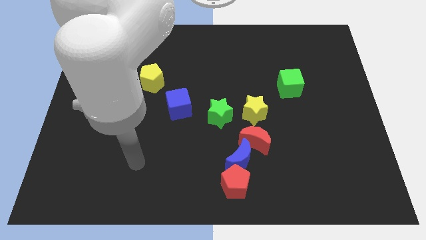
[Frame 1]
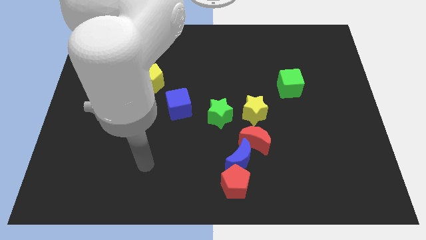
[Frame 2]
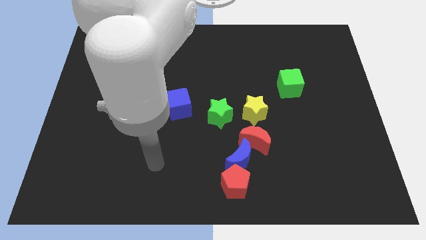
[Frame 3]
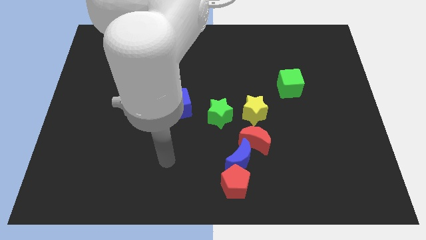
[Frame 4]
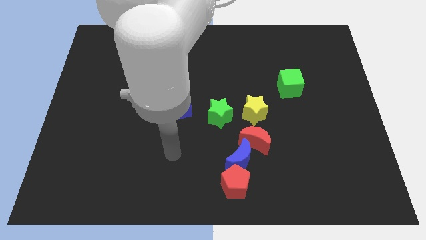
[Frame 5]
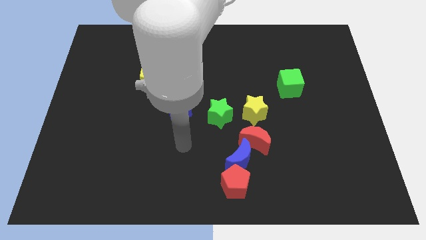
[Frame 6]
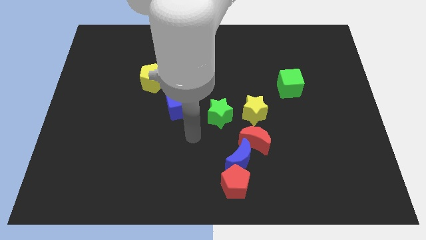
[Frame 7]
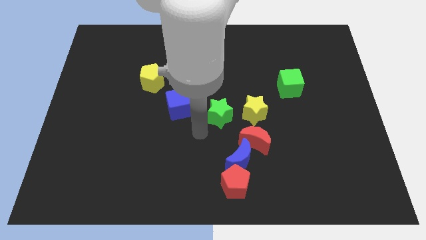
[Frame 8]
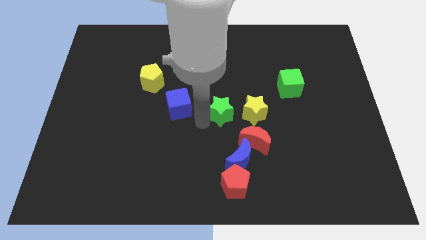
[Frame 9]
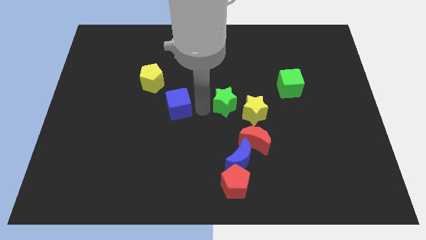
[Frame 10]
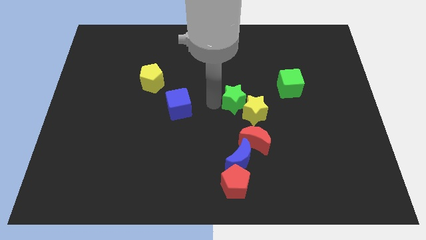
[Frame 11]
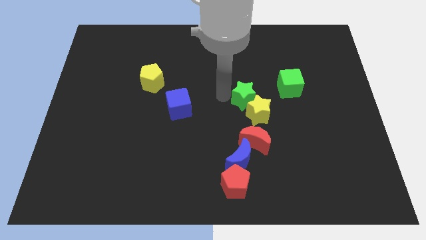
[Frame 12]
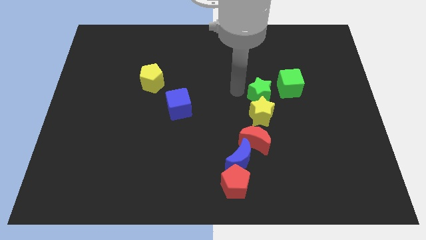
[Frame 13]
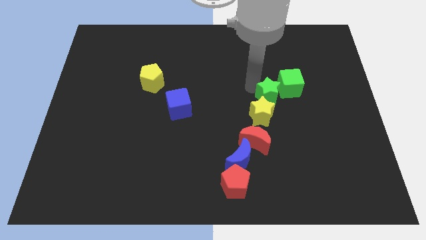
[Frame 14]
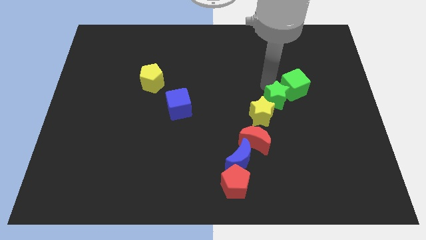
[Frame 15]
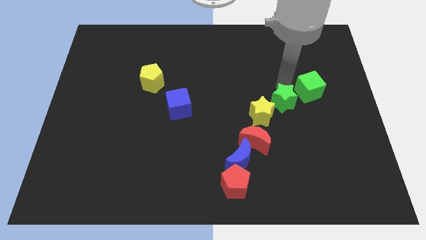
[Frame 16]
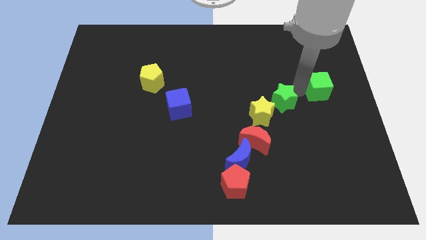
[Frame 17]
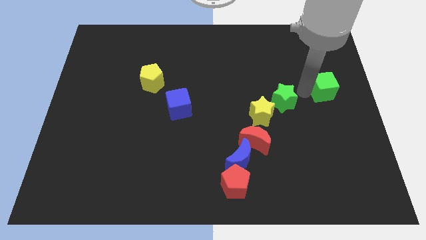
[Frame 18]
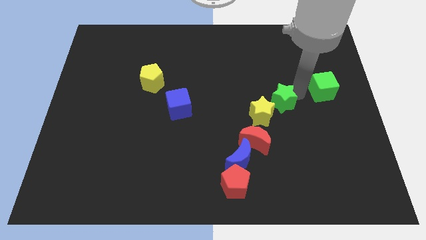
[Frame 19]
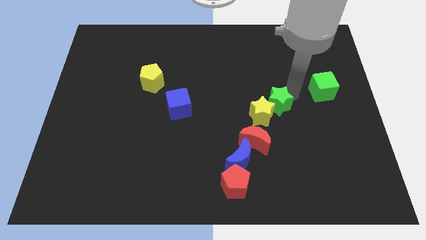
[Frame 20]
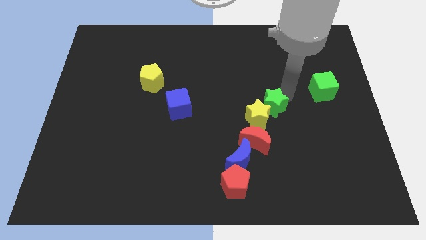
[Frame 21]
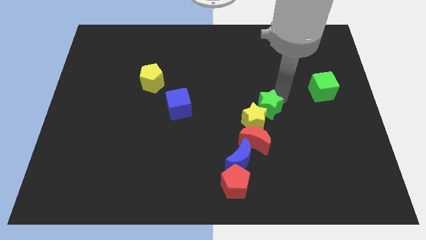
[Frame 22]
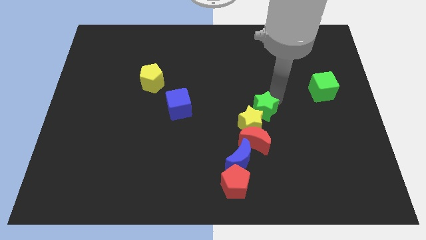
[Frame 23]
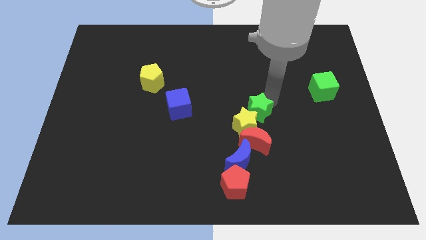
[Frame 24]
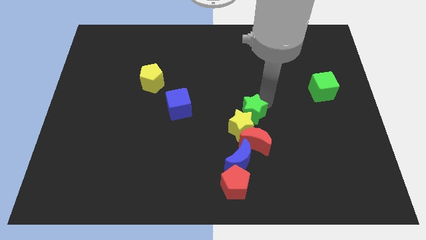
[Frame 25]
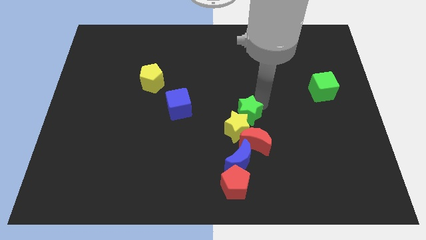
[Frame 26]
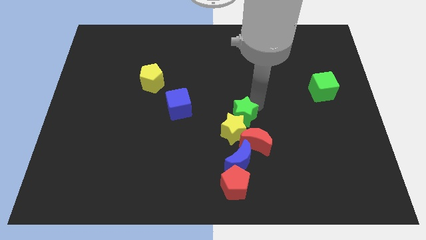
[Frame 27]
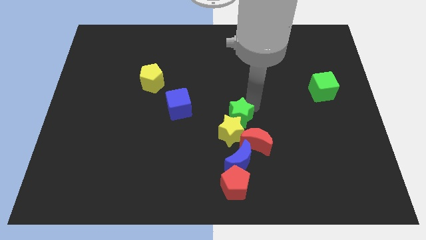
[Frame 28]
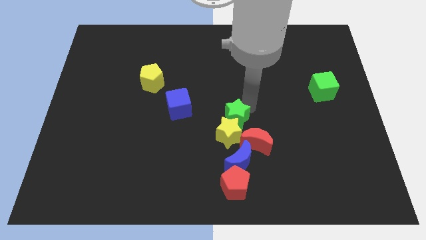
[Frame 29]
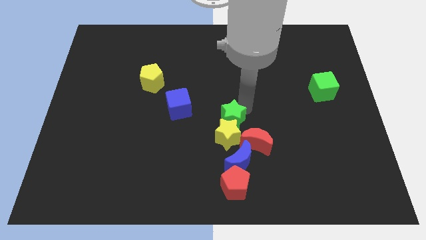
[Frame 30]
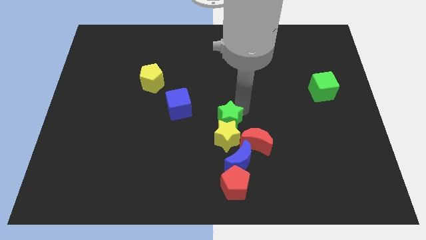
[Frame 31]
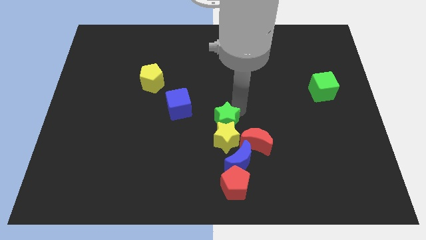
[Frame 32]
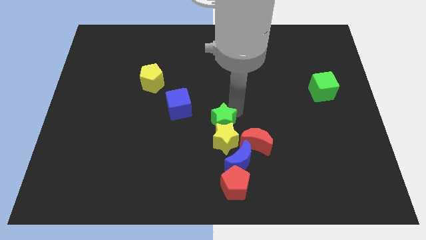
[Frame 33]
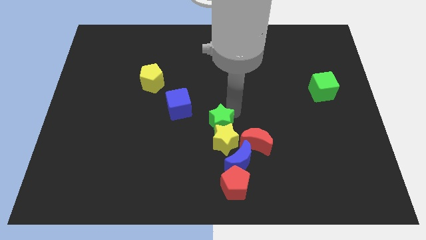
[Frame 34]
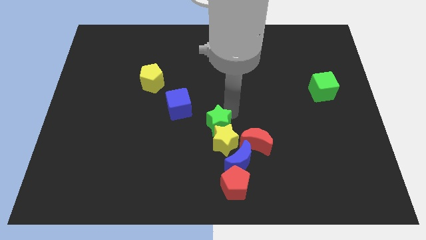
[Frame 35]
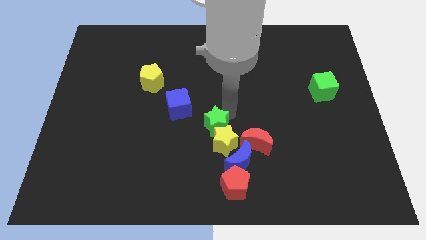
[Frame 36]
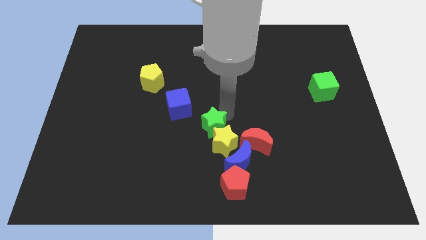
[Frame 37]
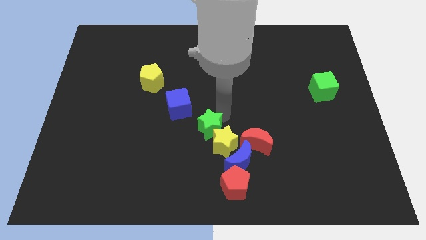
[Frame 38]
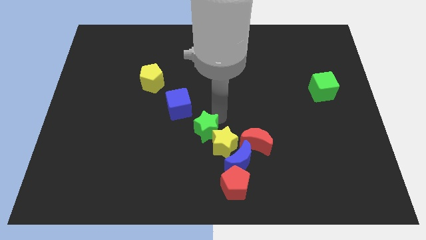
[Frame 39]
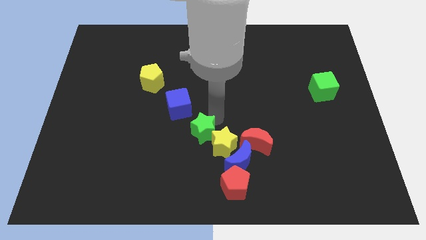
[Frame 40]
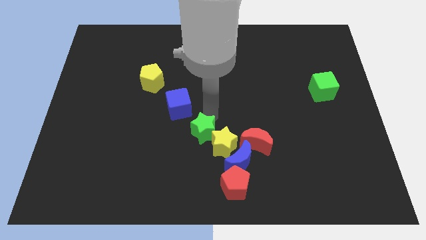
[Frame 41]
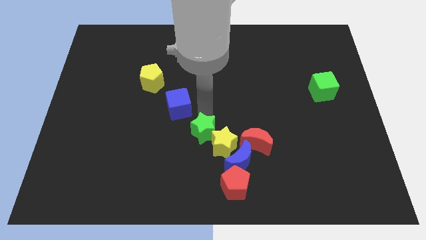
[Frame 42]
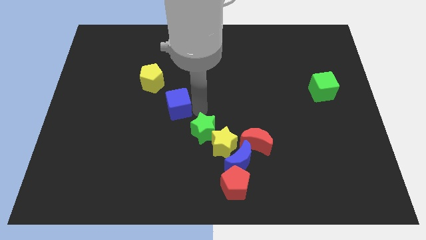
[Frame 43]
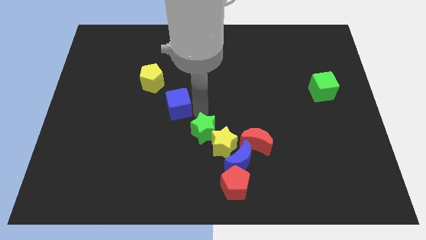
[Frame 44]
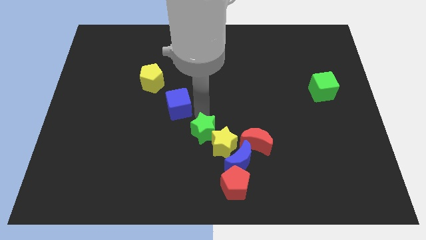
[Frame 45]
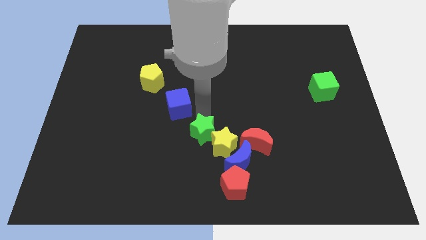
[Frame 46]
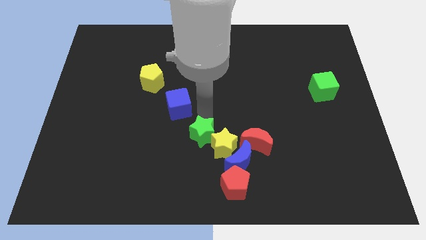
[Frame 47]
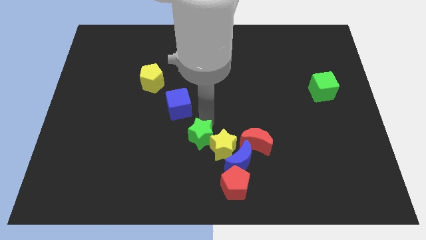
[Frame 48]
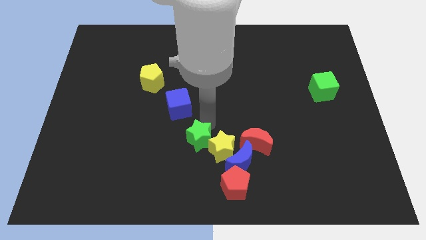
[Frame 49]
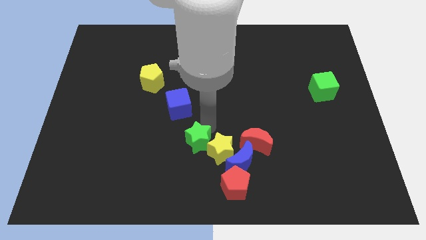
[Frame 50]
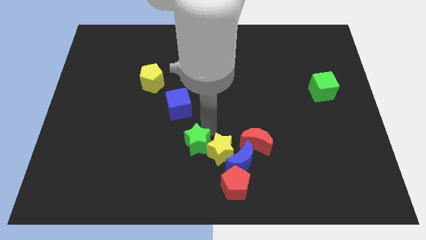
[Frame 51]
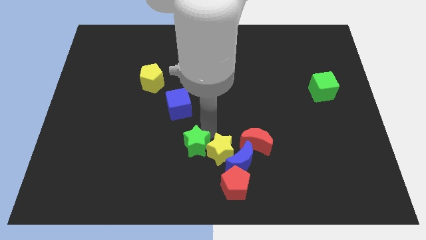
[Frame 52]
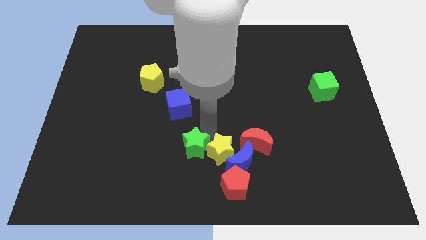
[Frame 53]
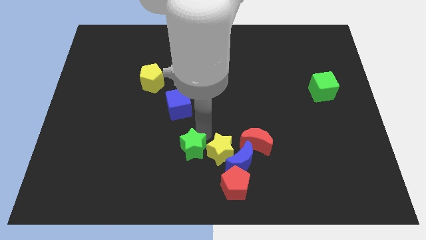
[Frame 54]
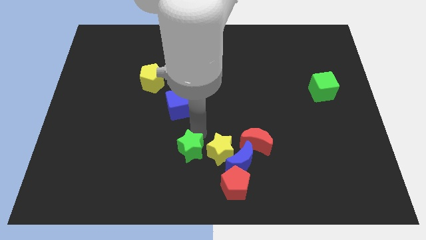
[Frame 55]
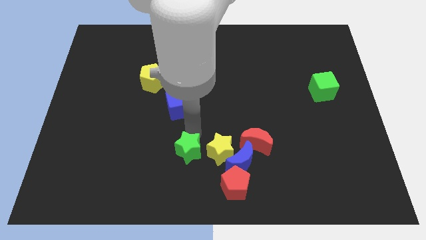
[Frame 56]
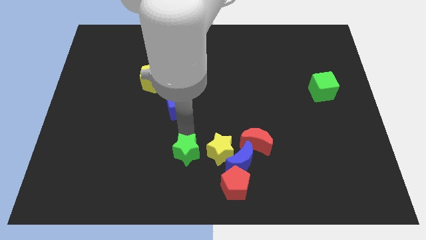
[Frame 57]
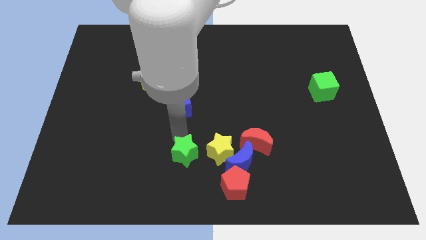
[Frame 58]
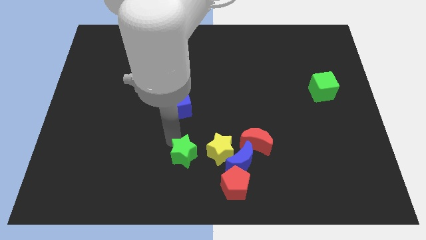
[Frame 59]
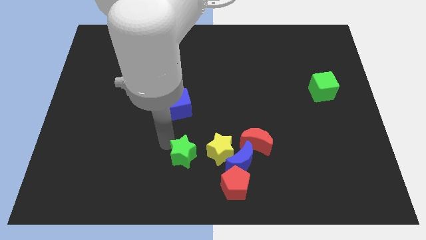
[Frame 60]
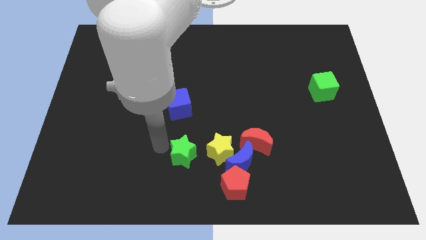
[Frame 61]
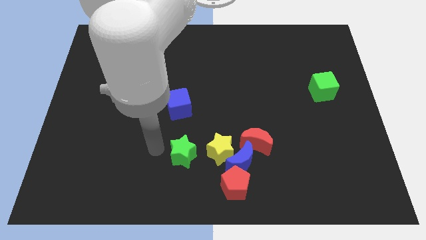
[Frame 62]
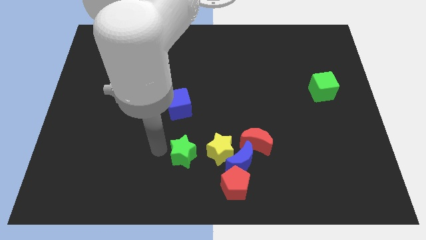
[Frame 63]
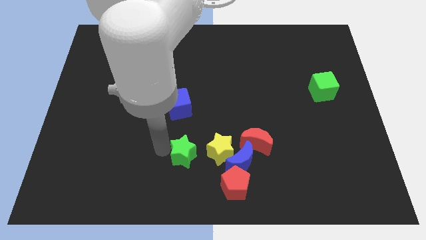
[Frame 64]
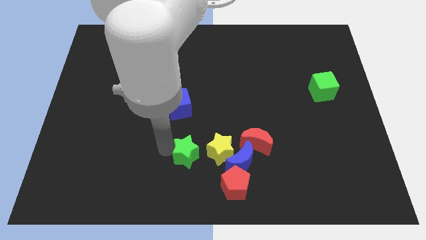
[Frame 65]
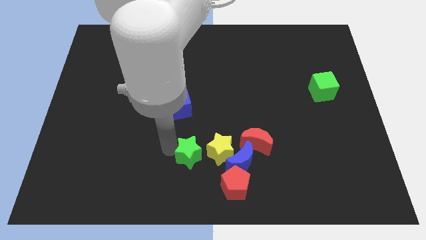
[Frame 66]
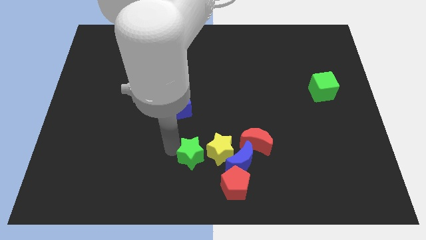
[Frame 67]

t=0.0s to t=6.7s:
put the green star to the bottom
